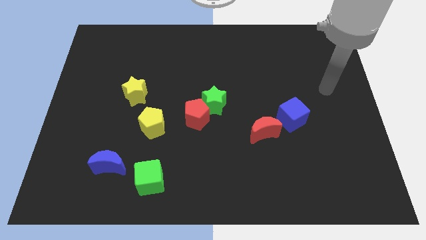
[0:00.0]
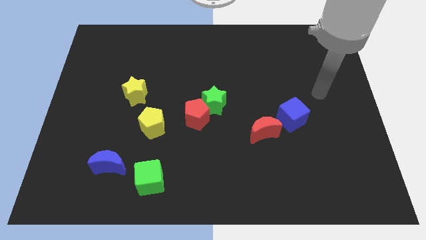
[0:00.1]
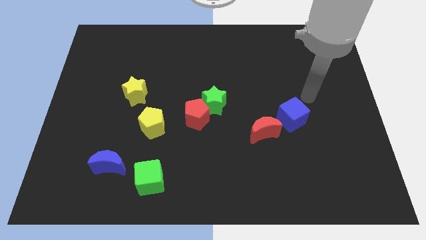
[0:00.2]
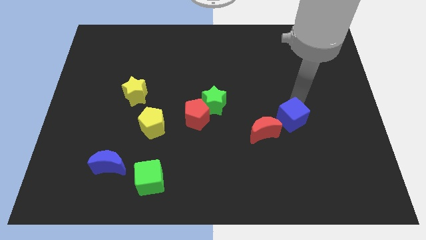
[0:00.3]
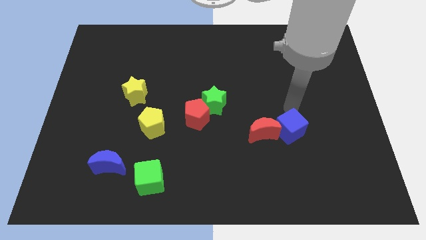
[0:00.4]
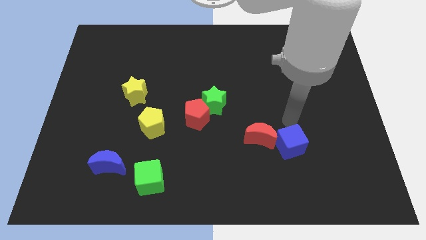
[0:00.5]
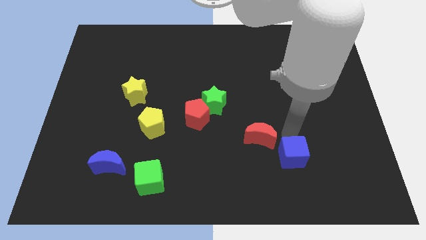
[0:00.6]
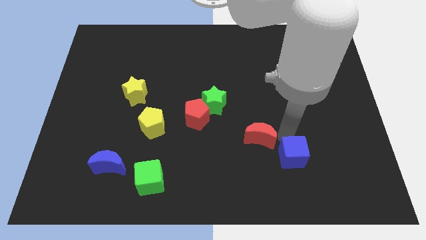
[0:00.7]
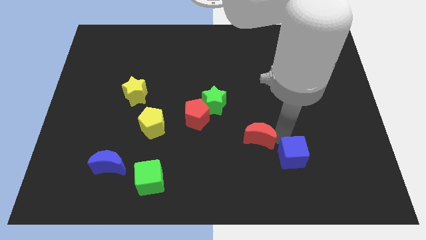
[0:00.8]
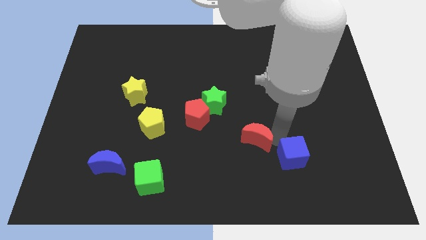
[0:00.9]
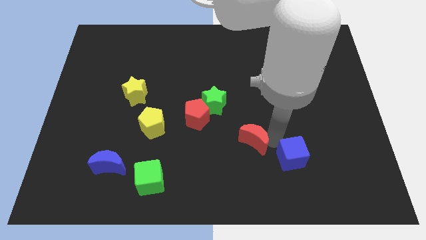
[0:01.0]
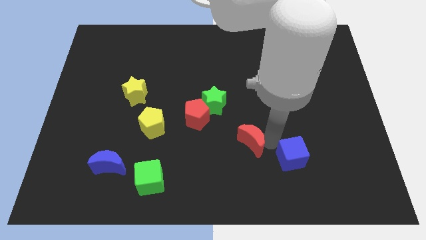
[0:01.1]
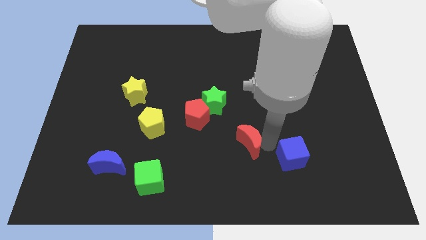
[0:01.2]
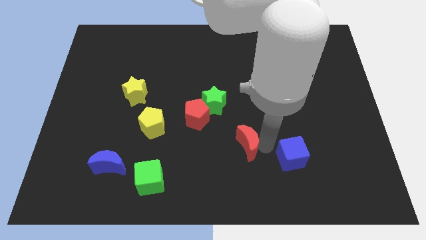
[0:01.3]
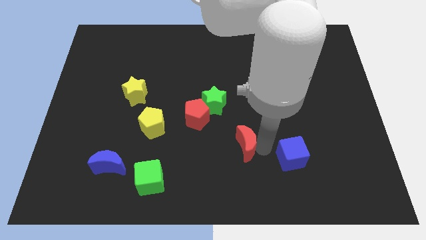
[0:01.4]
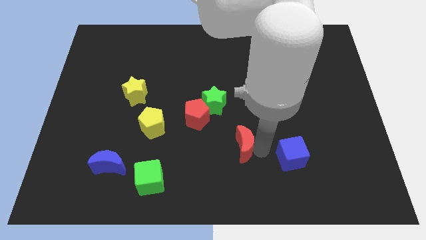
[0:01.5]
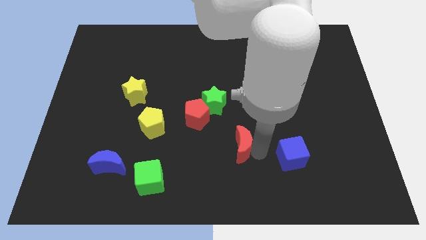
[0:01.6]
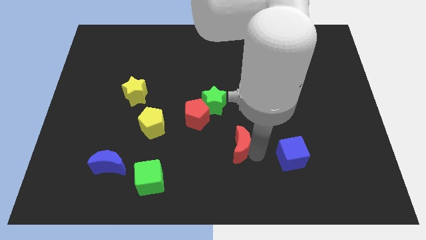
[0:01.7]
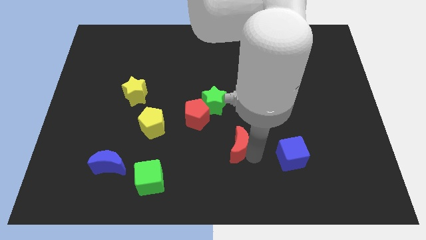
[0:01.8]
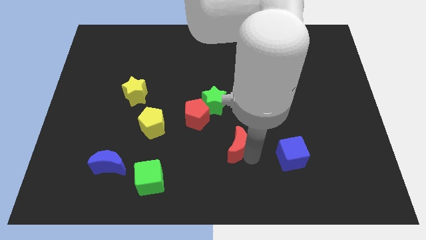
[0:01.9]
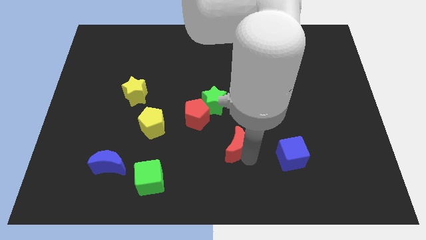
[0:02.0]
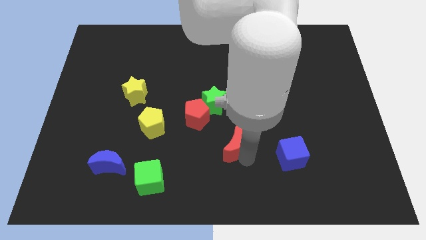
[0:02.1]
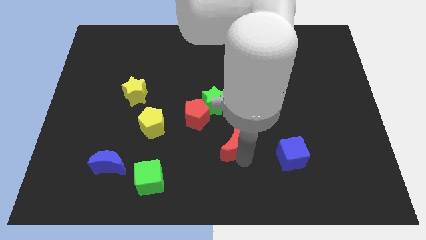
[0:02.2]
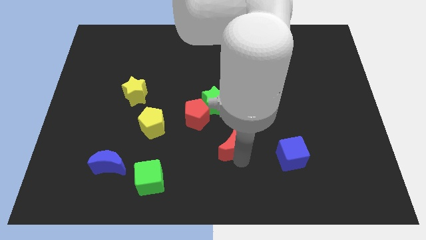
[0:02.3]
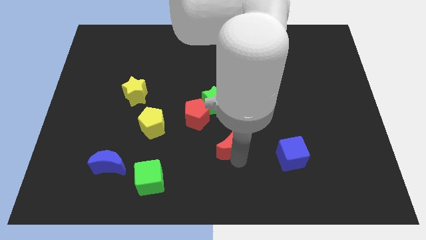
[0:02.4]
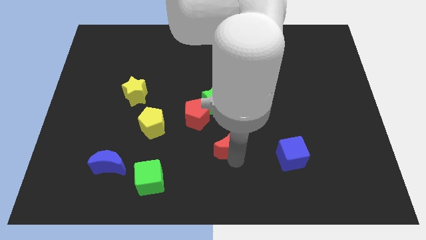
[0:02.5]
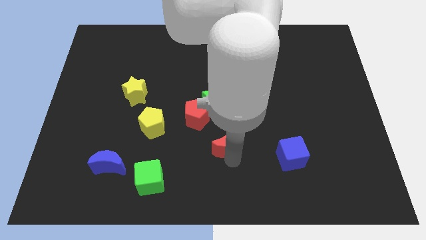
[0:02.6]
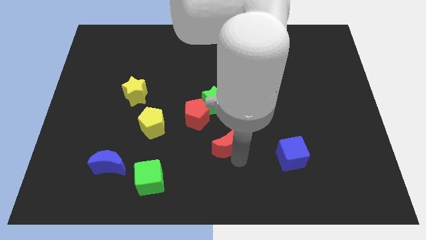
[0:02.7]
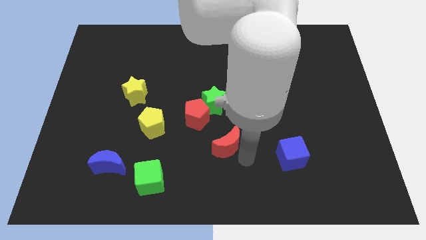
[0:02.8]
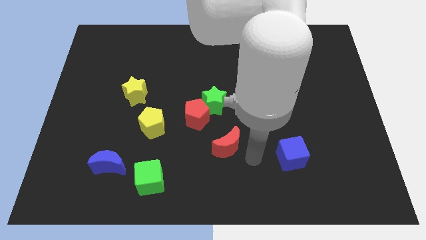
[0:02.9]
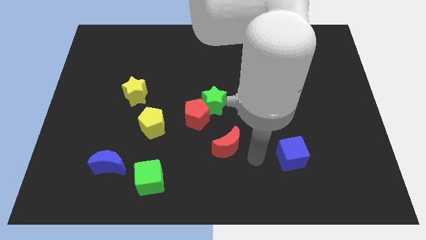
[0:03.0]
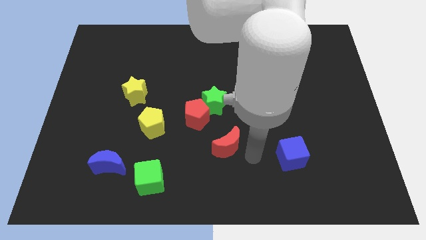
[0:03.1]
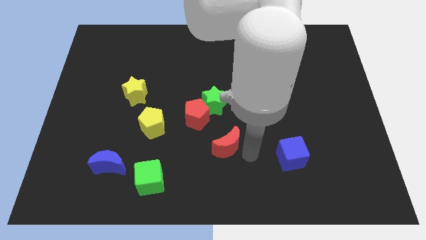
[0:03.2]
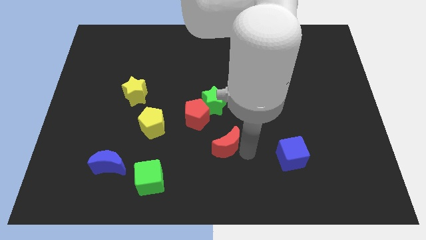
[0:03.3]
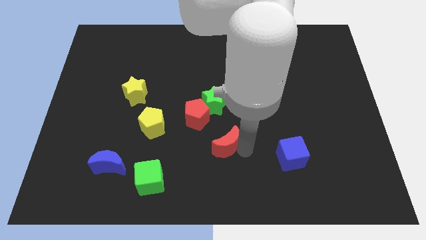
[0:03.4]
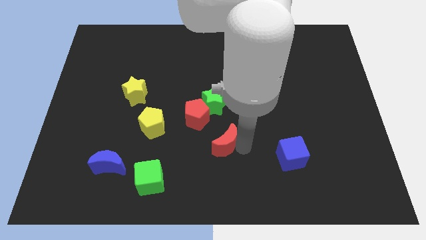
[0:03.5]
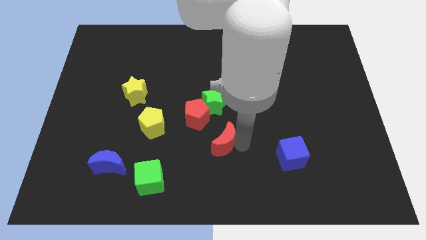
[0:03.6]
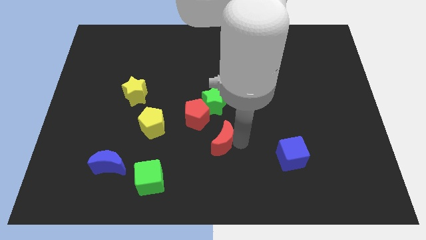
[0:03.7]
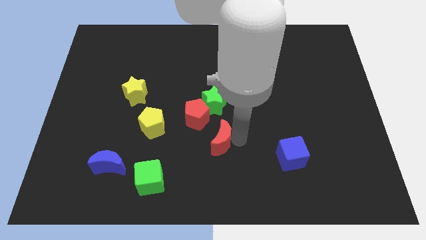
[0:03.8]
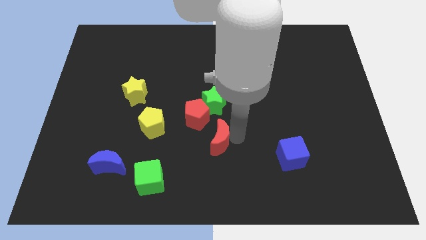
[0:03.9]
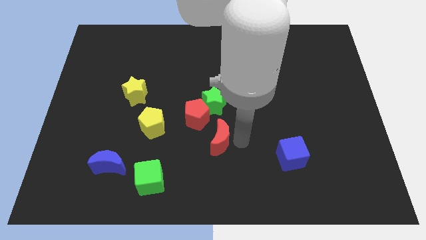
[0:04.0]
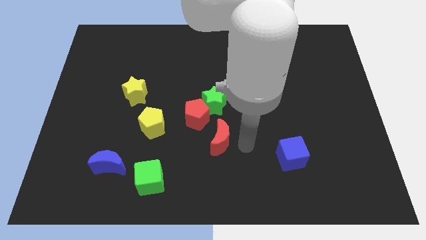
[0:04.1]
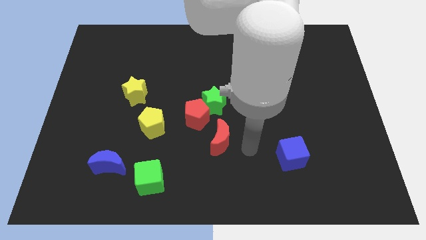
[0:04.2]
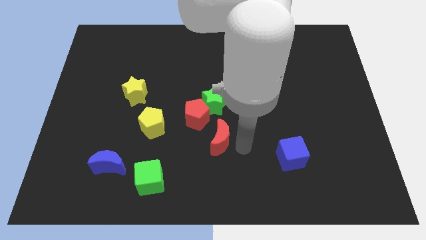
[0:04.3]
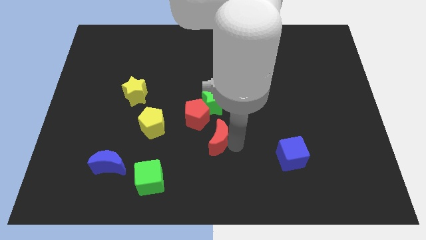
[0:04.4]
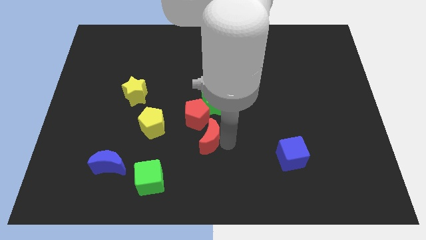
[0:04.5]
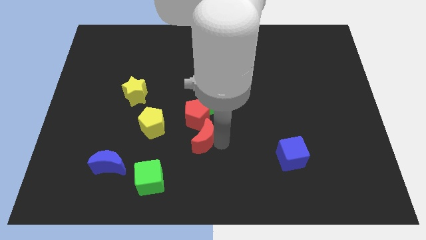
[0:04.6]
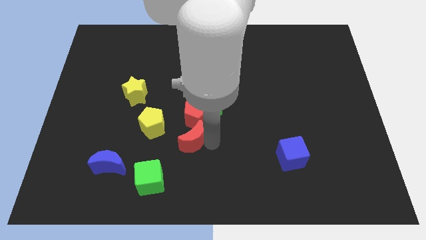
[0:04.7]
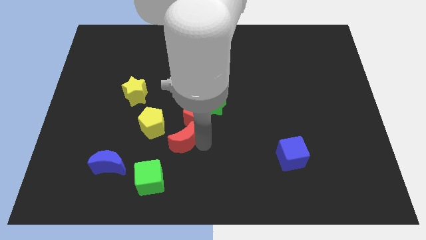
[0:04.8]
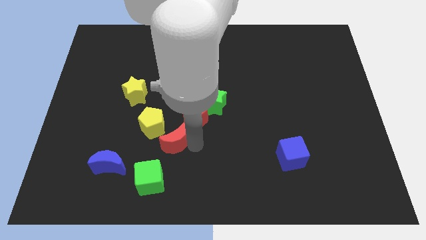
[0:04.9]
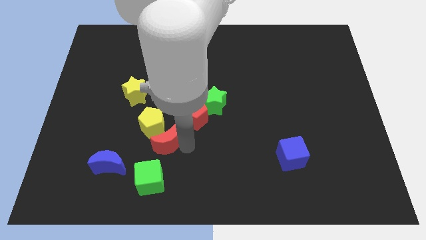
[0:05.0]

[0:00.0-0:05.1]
move the red moon to the left

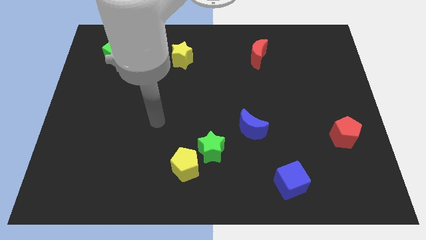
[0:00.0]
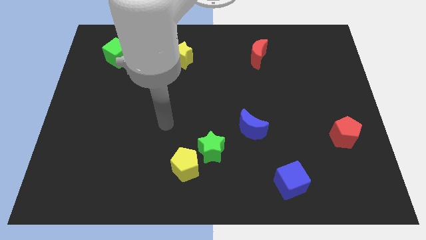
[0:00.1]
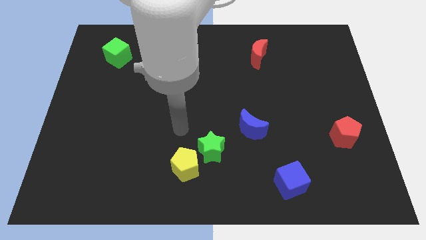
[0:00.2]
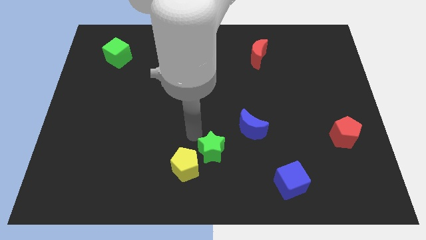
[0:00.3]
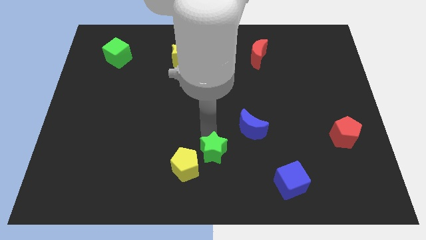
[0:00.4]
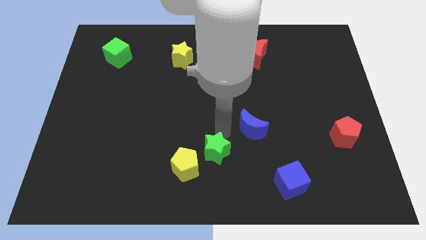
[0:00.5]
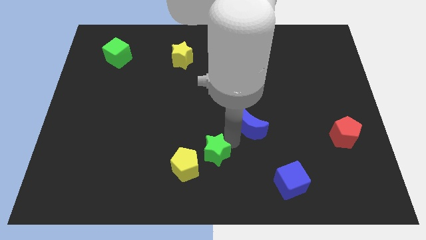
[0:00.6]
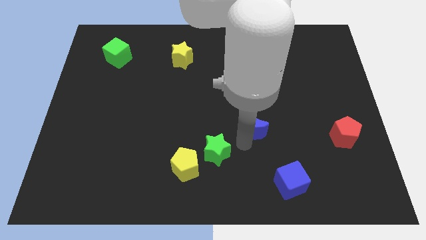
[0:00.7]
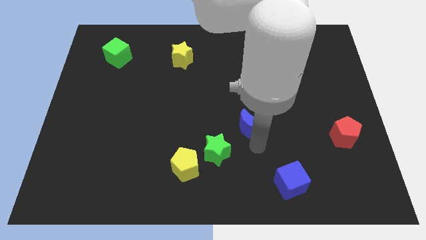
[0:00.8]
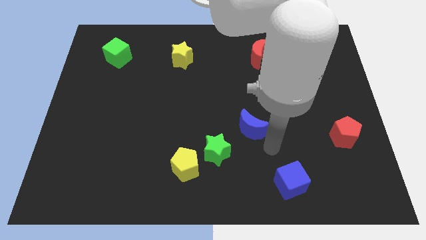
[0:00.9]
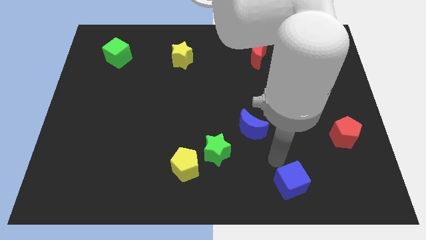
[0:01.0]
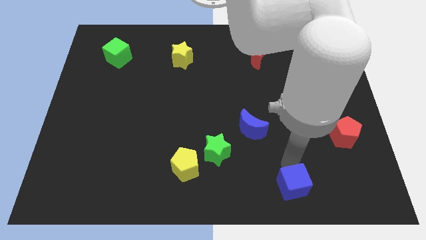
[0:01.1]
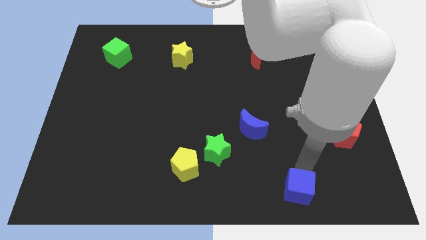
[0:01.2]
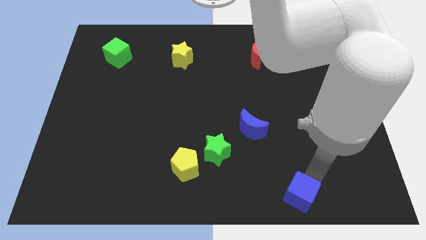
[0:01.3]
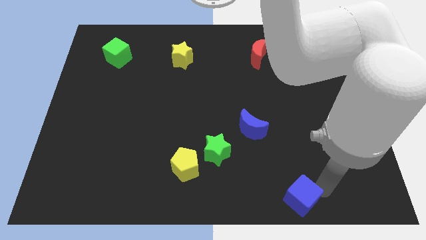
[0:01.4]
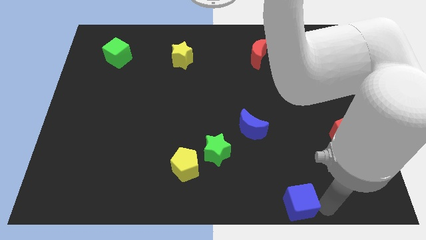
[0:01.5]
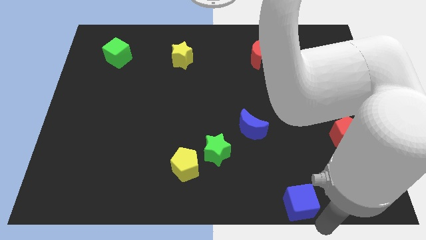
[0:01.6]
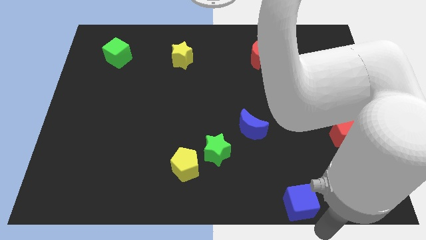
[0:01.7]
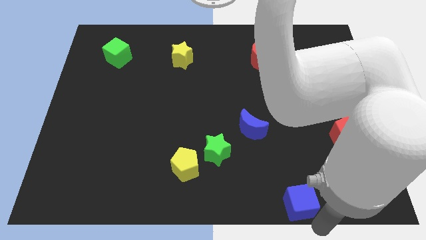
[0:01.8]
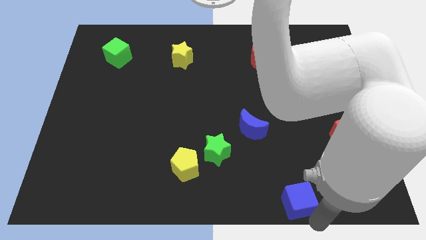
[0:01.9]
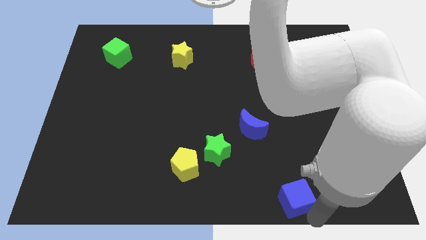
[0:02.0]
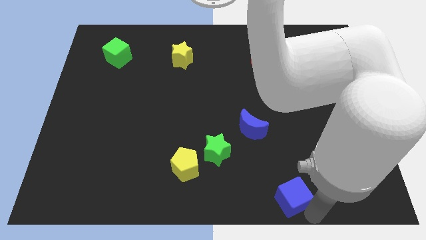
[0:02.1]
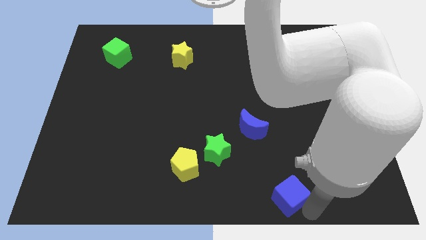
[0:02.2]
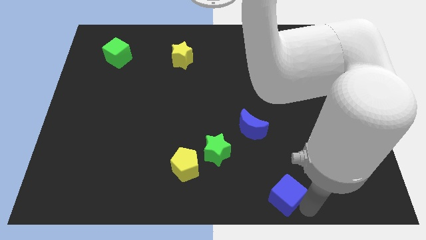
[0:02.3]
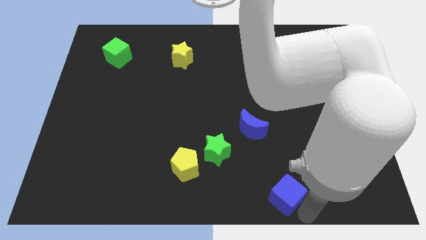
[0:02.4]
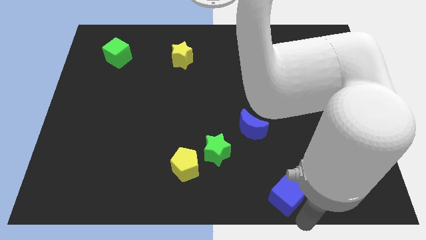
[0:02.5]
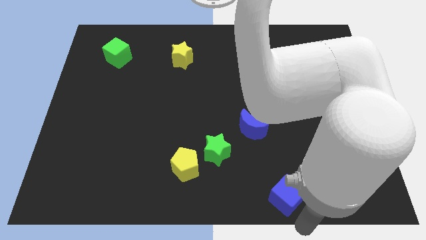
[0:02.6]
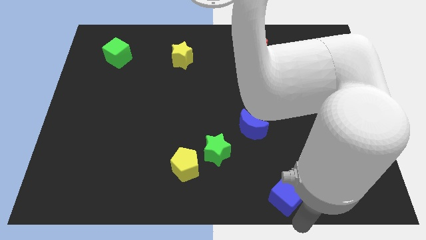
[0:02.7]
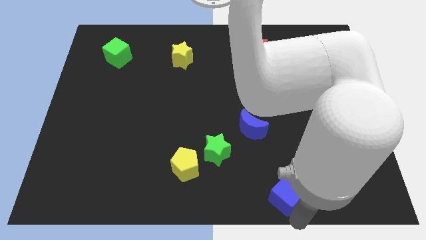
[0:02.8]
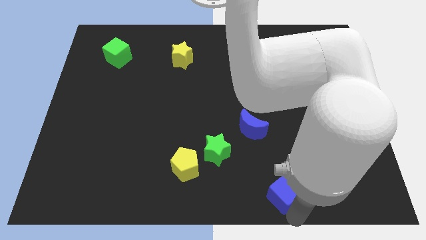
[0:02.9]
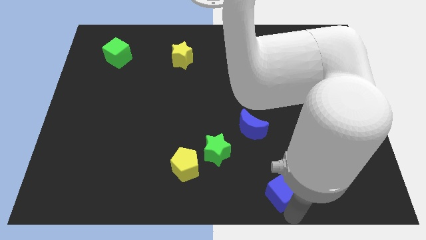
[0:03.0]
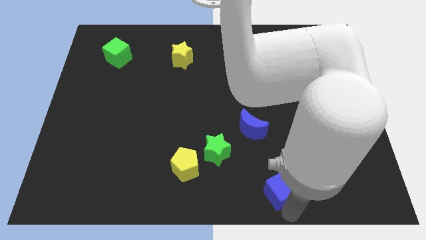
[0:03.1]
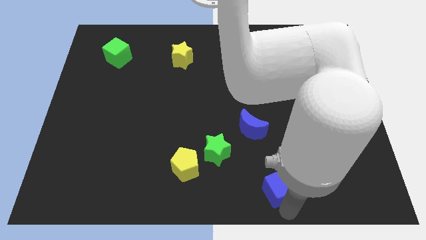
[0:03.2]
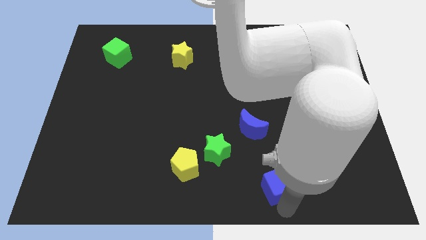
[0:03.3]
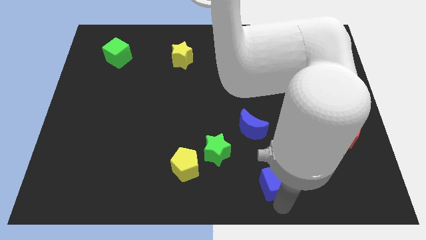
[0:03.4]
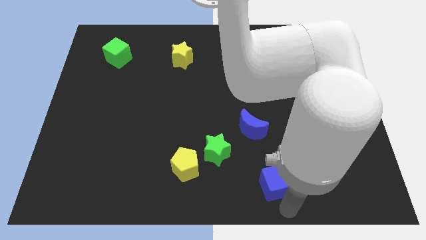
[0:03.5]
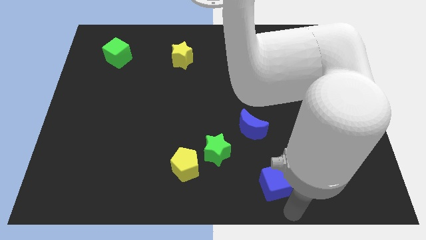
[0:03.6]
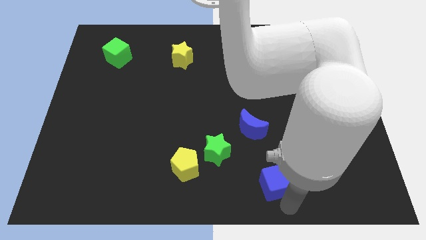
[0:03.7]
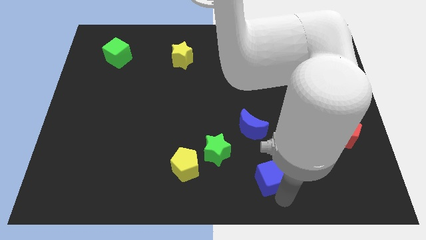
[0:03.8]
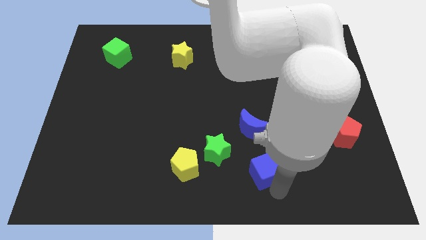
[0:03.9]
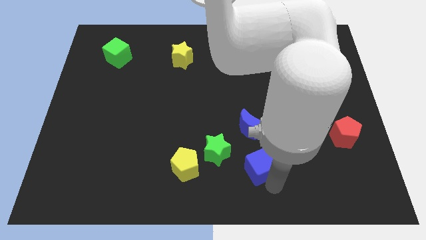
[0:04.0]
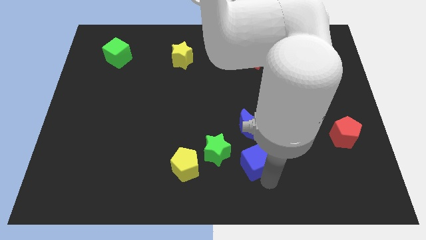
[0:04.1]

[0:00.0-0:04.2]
slightly move the blue cube upwards and to the left diagonally
